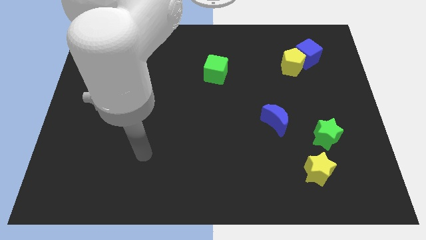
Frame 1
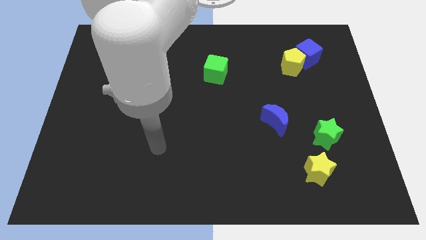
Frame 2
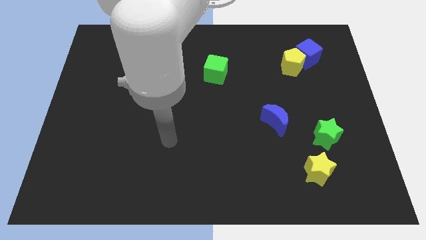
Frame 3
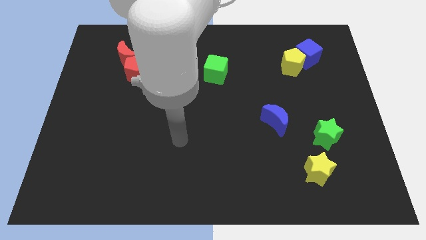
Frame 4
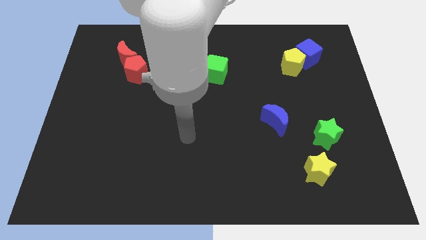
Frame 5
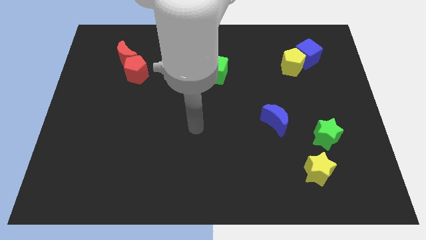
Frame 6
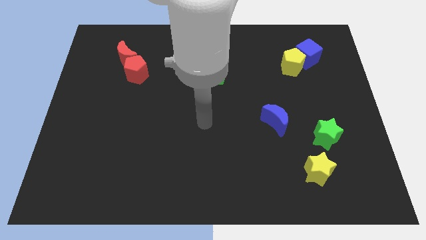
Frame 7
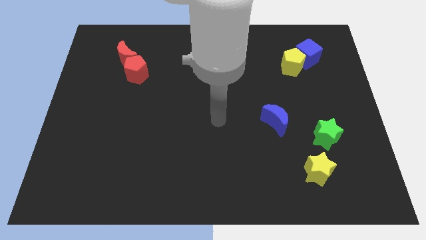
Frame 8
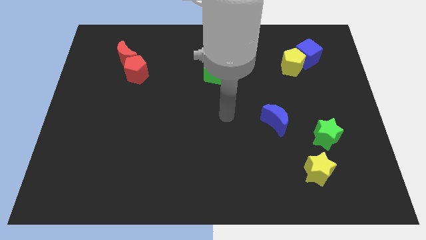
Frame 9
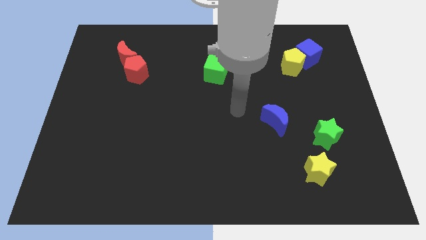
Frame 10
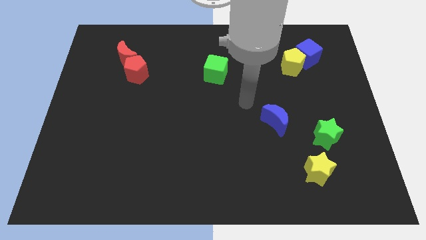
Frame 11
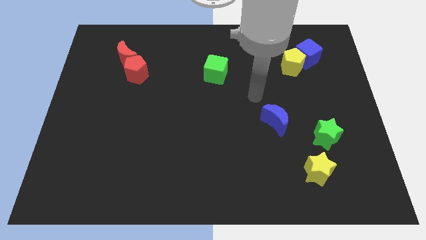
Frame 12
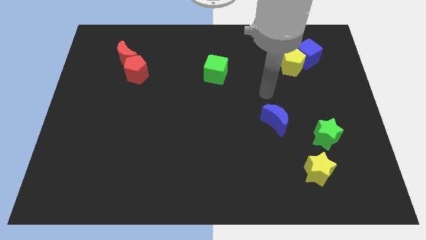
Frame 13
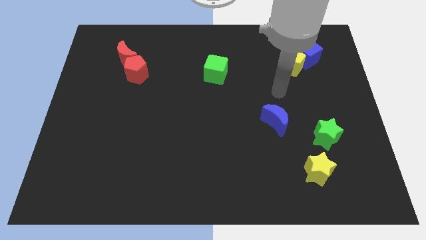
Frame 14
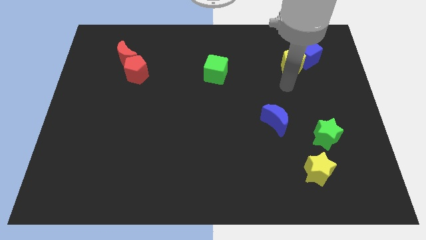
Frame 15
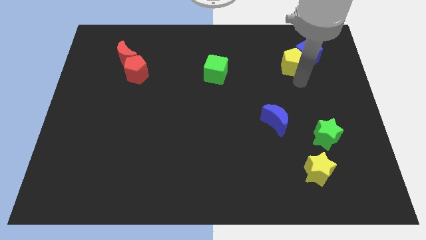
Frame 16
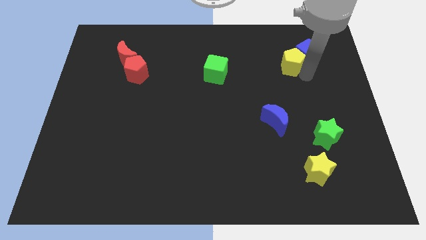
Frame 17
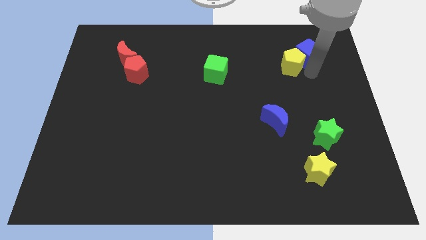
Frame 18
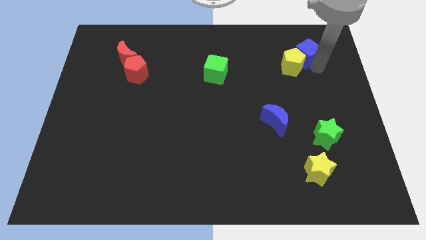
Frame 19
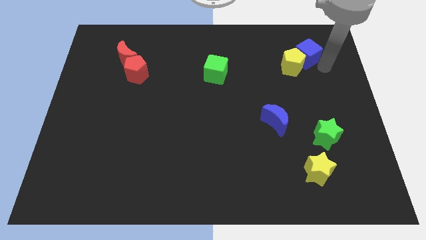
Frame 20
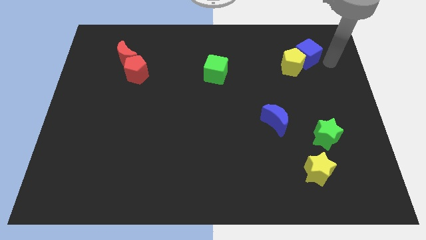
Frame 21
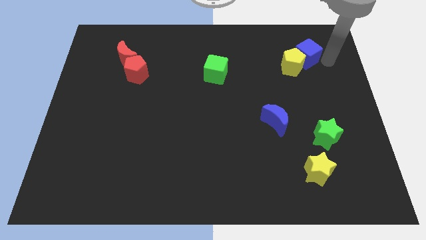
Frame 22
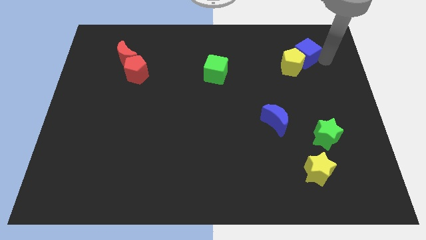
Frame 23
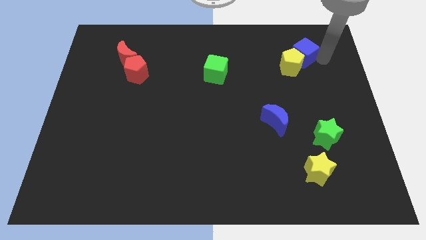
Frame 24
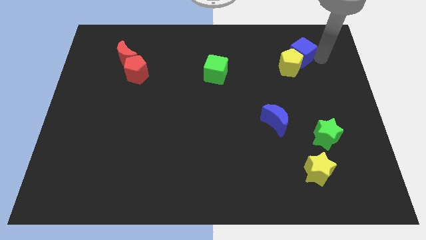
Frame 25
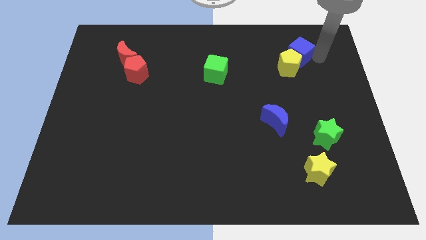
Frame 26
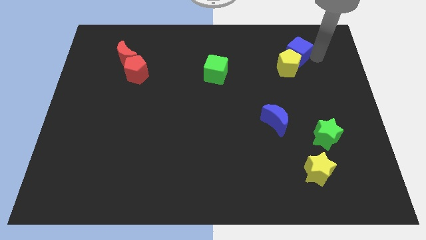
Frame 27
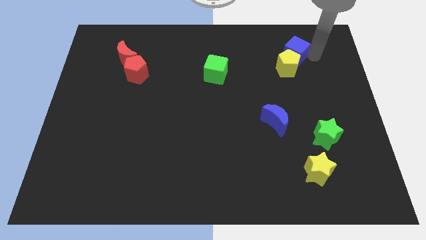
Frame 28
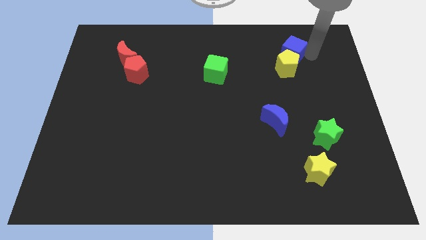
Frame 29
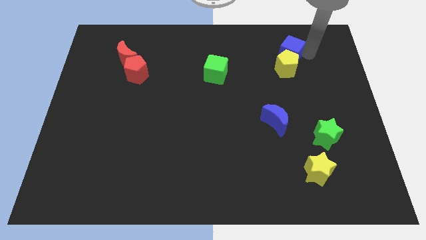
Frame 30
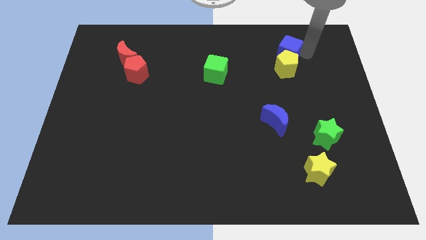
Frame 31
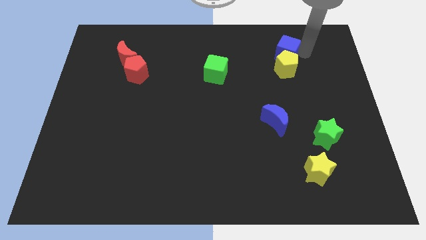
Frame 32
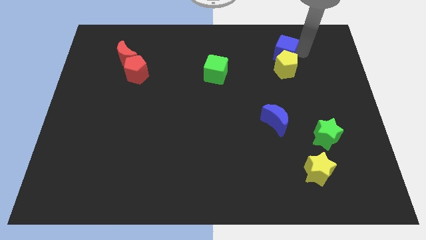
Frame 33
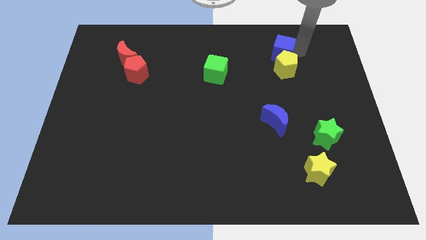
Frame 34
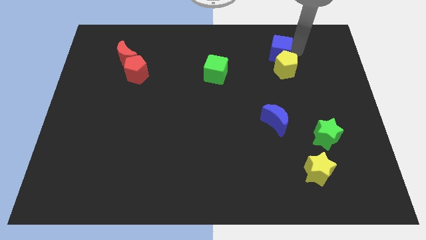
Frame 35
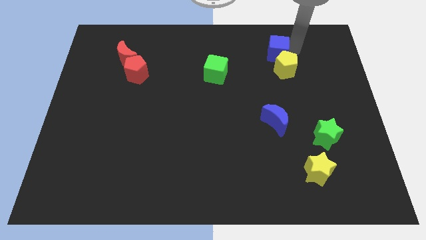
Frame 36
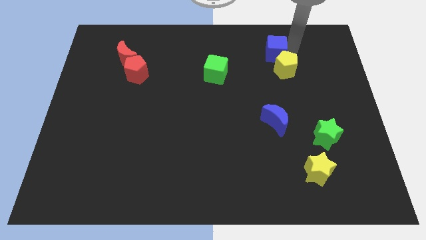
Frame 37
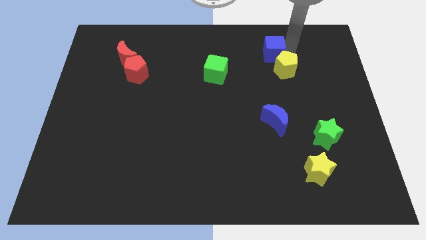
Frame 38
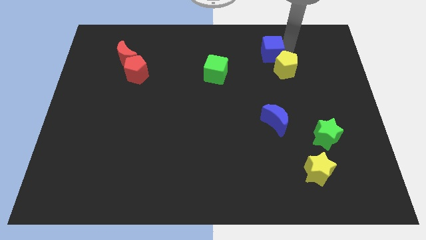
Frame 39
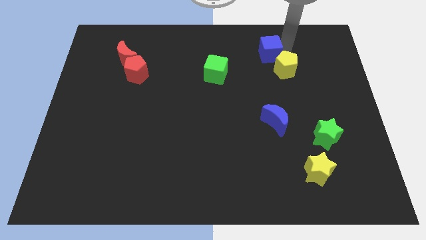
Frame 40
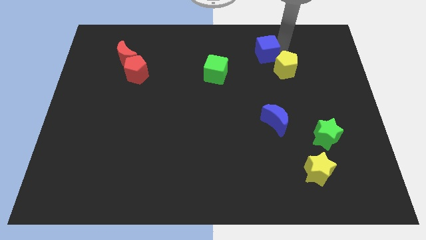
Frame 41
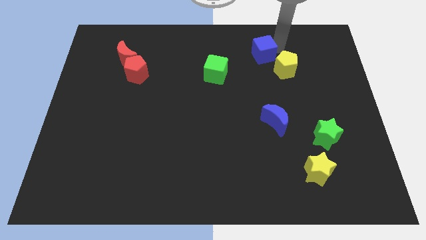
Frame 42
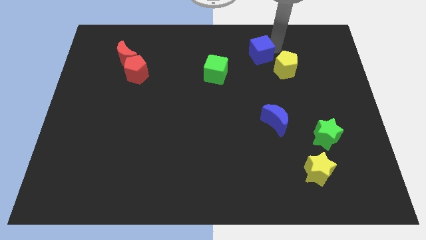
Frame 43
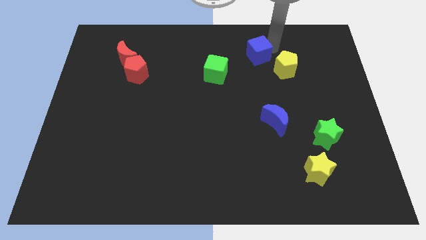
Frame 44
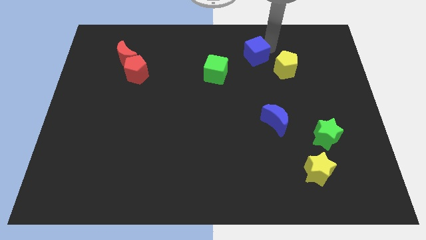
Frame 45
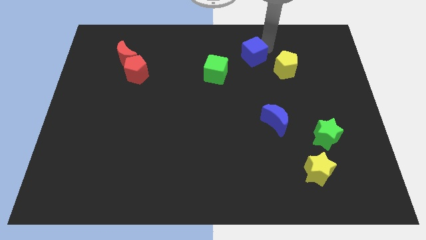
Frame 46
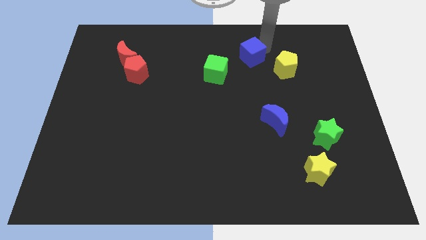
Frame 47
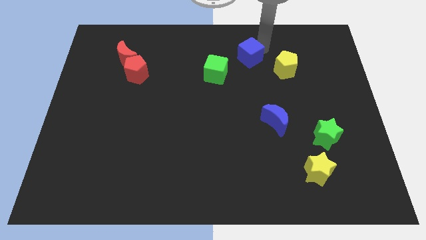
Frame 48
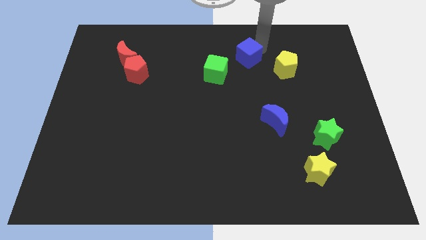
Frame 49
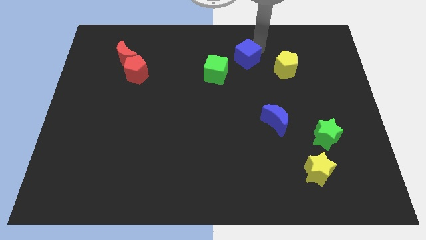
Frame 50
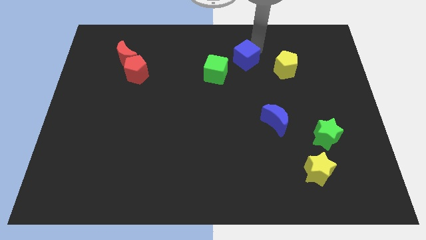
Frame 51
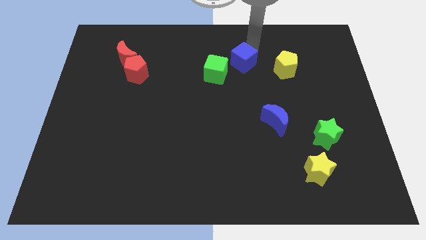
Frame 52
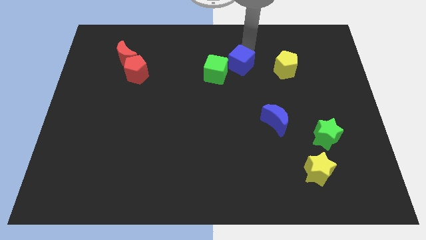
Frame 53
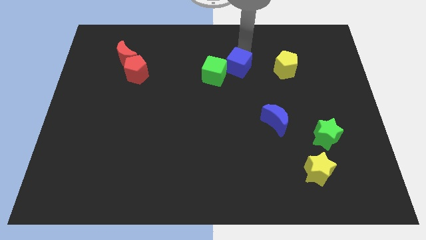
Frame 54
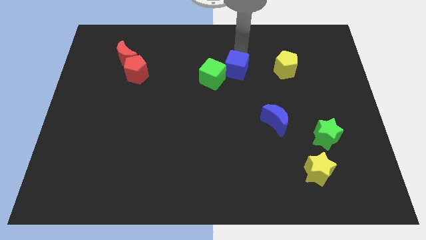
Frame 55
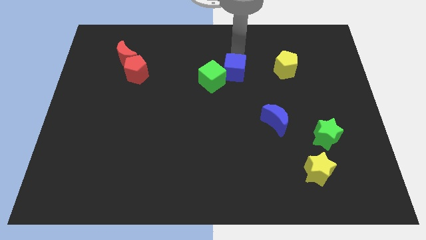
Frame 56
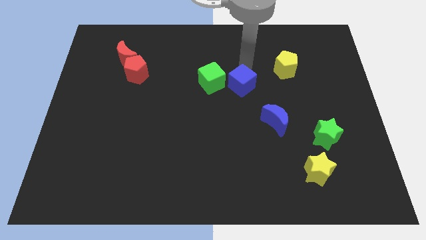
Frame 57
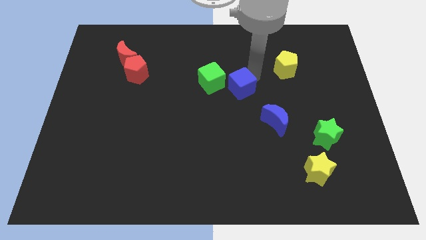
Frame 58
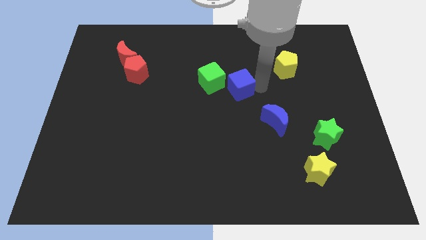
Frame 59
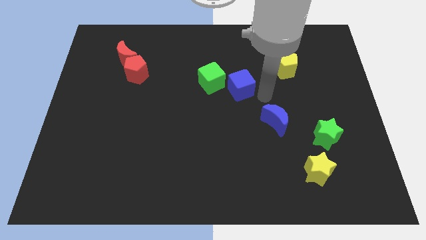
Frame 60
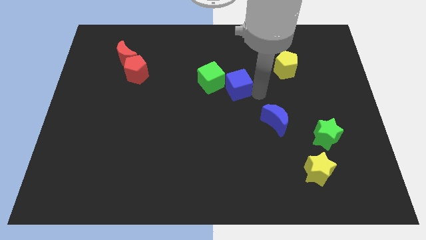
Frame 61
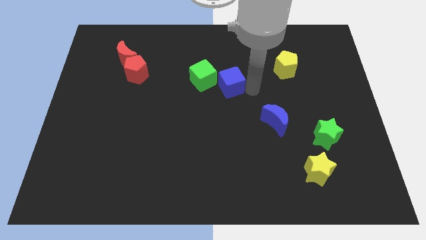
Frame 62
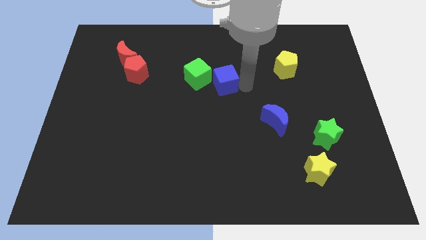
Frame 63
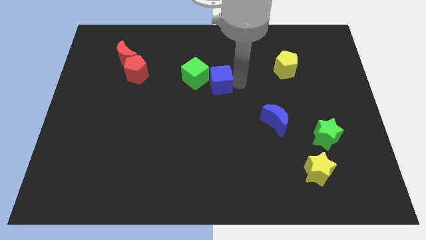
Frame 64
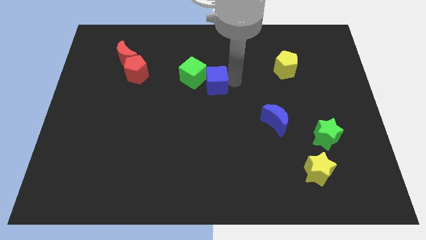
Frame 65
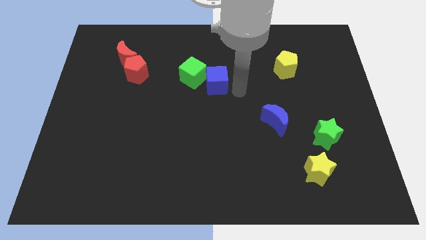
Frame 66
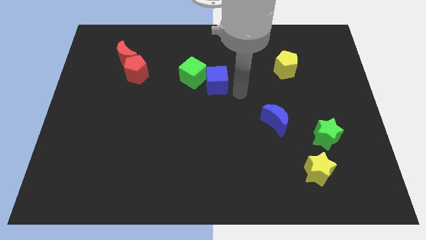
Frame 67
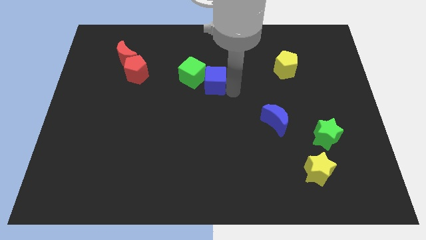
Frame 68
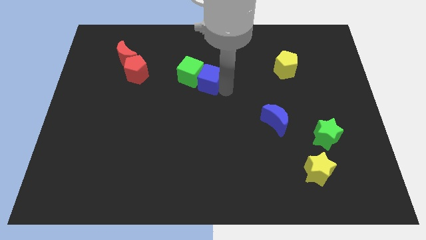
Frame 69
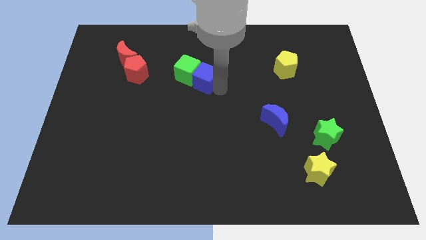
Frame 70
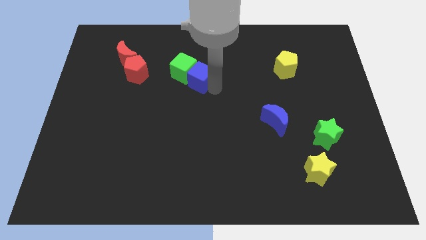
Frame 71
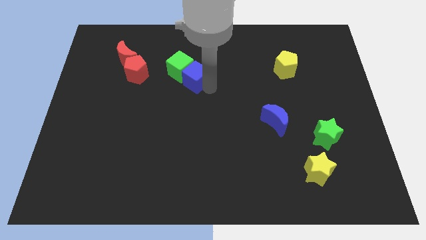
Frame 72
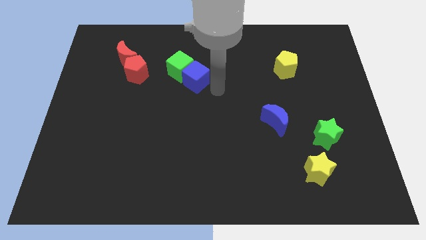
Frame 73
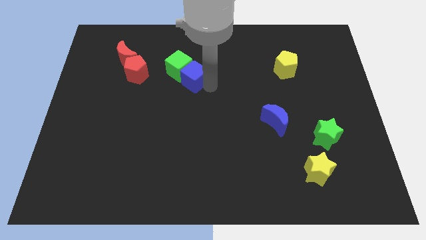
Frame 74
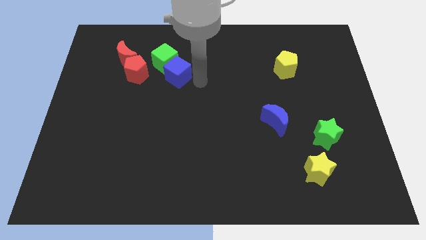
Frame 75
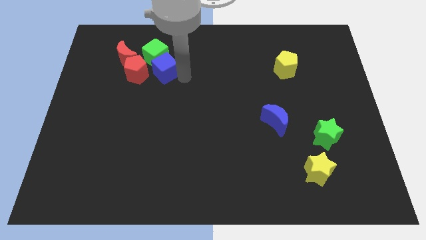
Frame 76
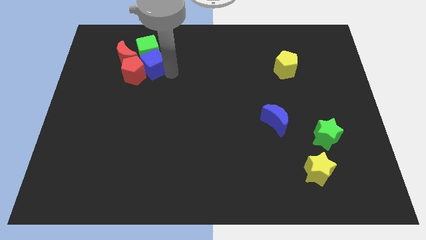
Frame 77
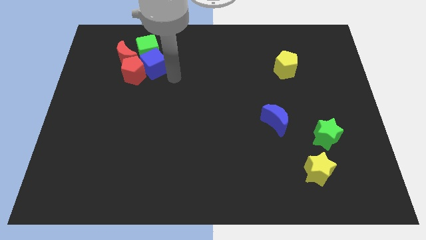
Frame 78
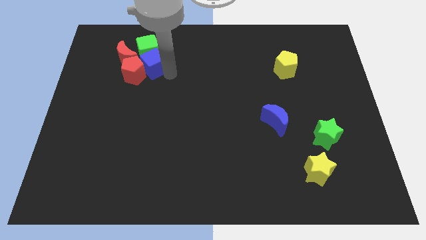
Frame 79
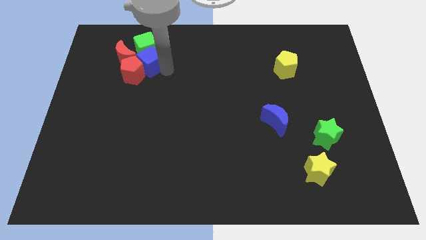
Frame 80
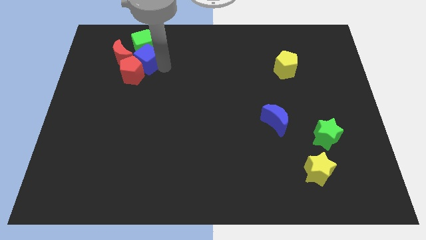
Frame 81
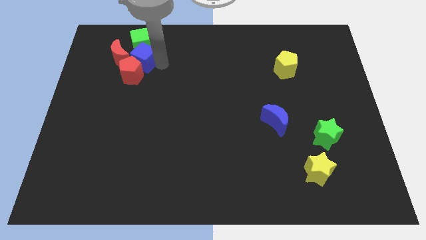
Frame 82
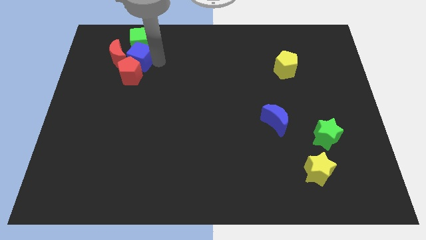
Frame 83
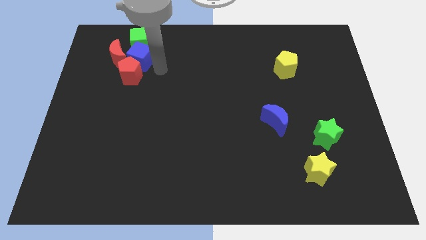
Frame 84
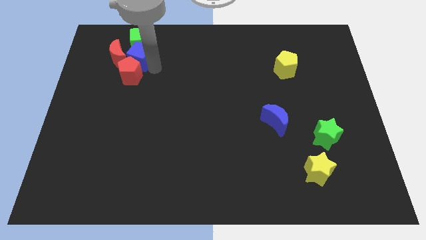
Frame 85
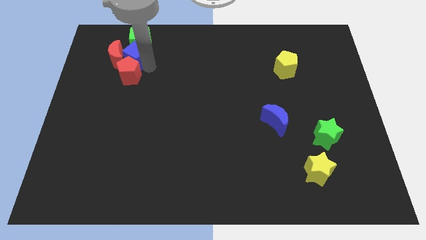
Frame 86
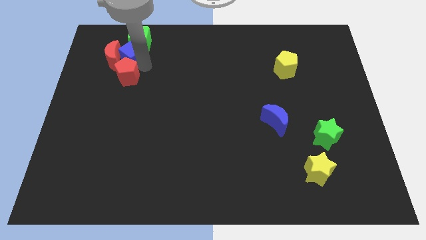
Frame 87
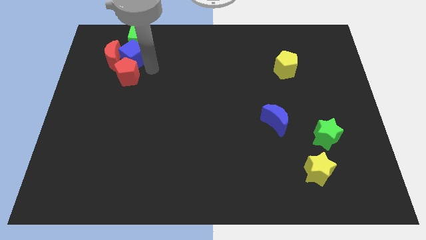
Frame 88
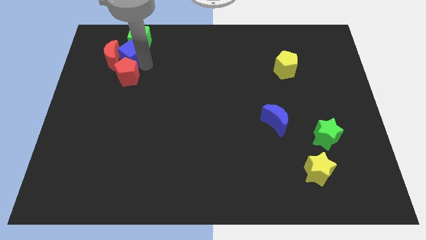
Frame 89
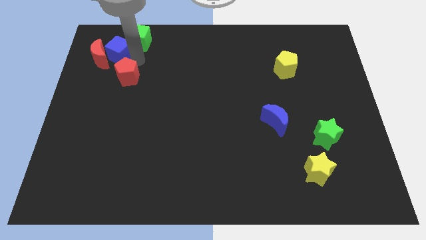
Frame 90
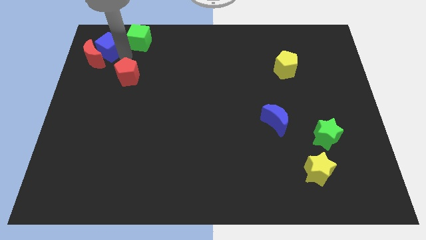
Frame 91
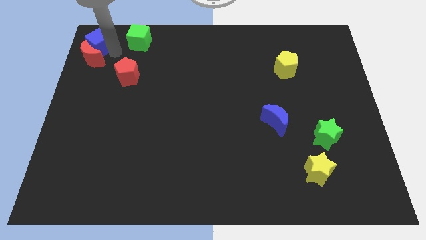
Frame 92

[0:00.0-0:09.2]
move the blue cube to the top left
